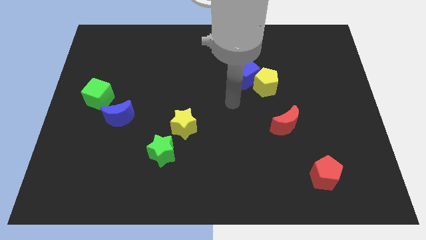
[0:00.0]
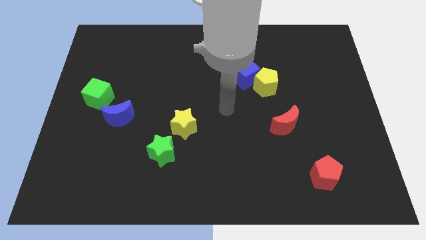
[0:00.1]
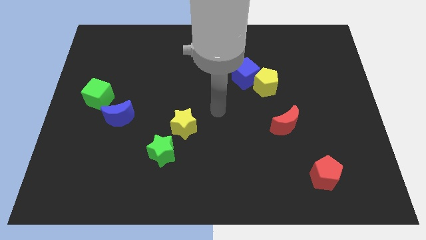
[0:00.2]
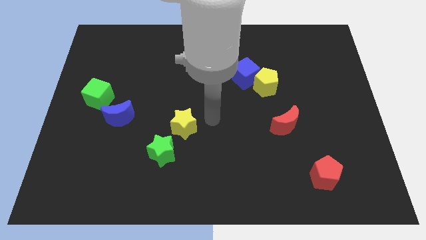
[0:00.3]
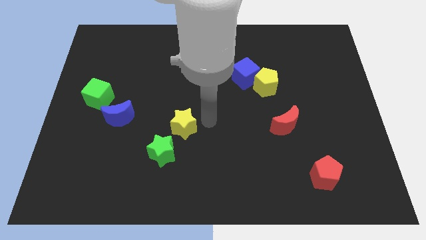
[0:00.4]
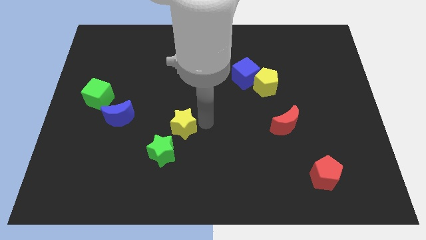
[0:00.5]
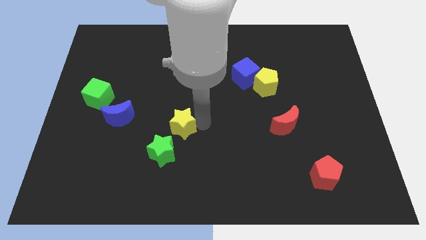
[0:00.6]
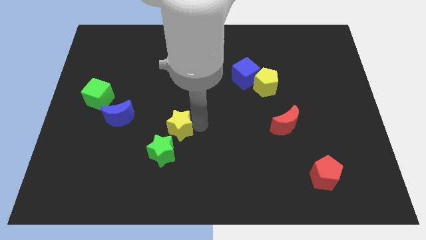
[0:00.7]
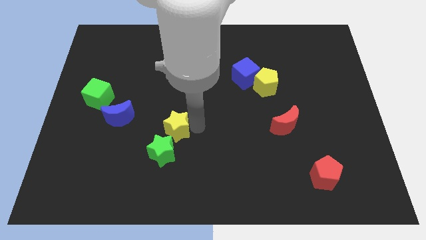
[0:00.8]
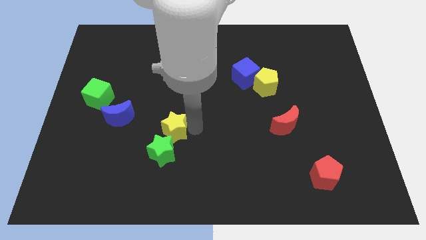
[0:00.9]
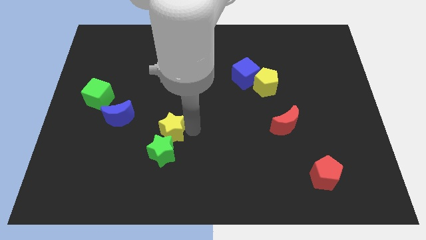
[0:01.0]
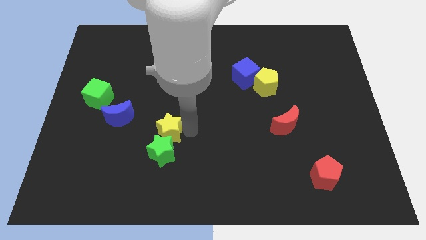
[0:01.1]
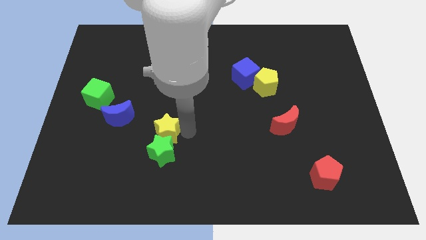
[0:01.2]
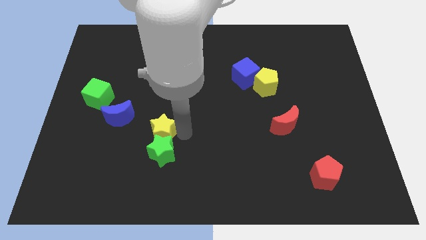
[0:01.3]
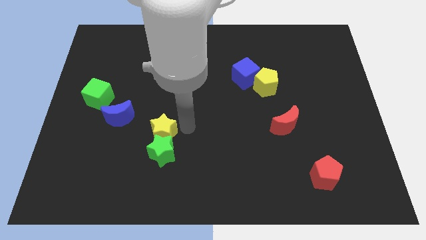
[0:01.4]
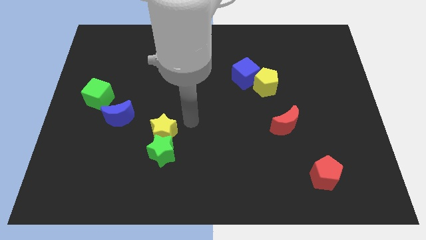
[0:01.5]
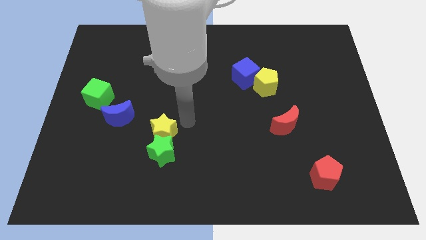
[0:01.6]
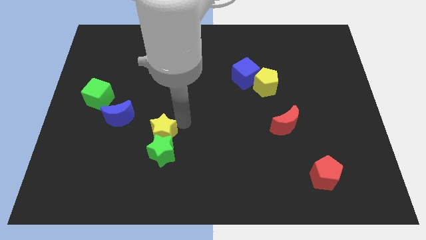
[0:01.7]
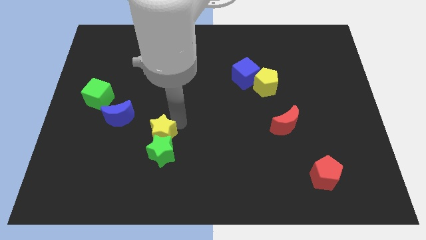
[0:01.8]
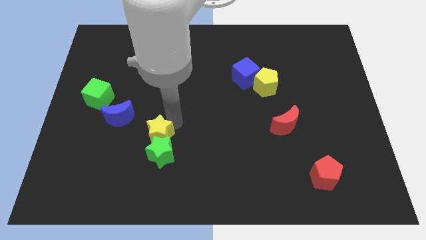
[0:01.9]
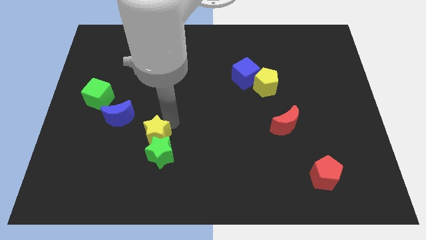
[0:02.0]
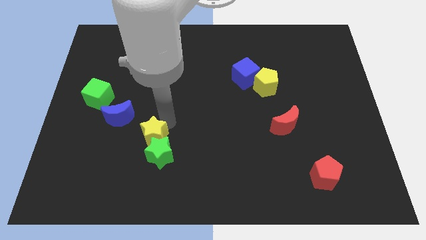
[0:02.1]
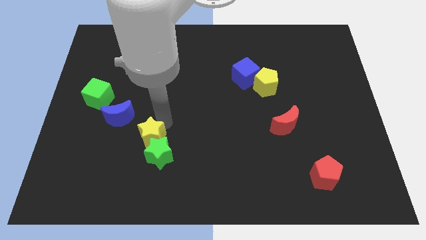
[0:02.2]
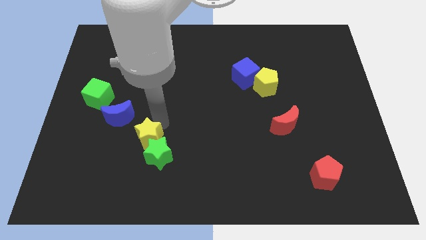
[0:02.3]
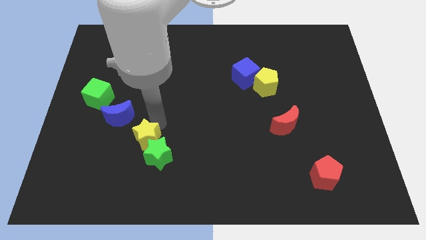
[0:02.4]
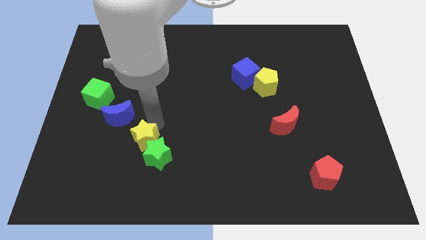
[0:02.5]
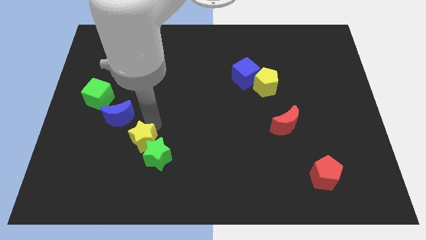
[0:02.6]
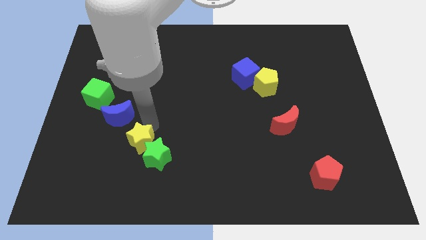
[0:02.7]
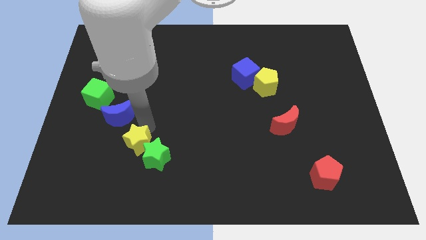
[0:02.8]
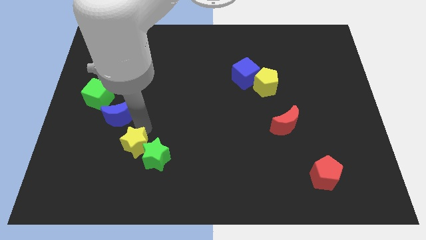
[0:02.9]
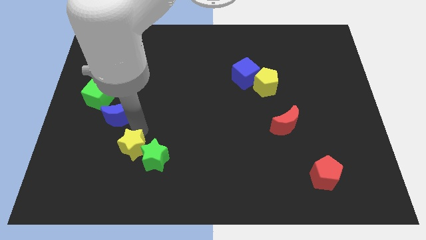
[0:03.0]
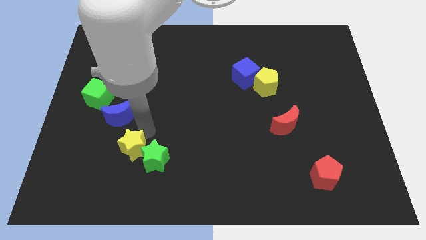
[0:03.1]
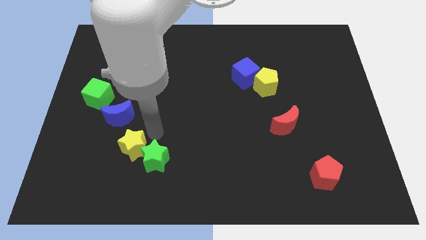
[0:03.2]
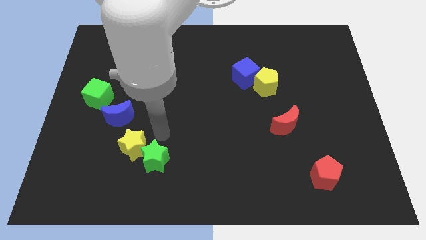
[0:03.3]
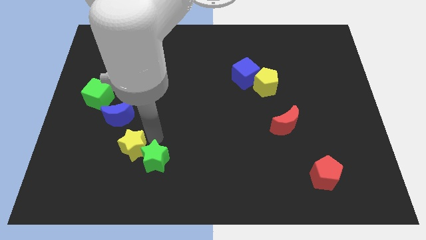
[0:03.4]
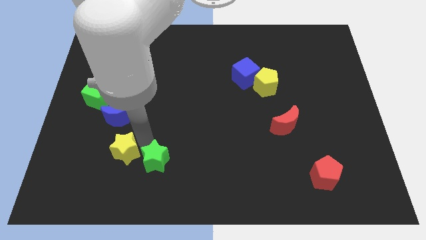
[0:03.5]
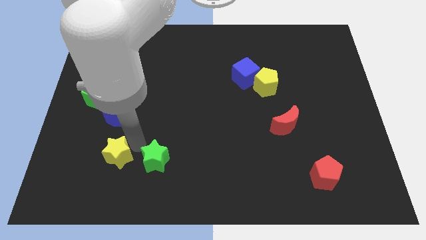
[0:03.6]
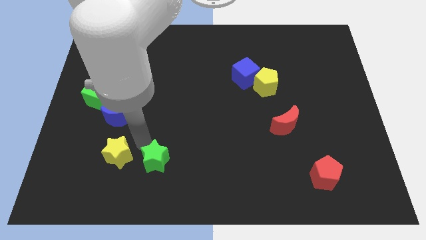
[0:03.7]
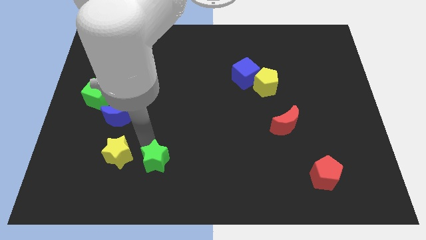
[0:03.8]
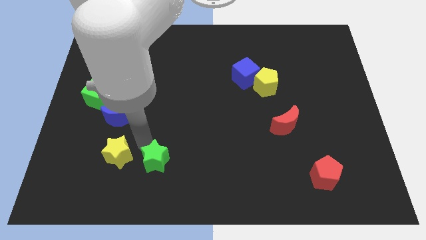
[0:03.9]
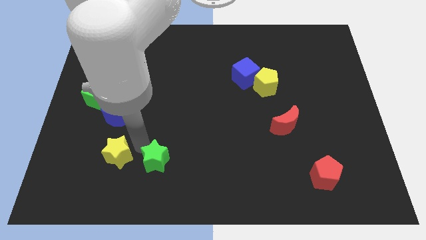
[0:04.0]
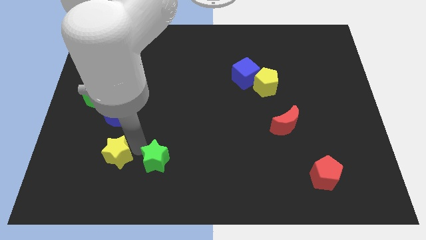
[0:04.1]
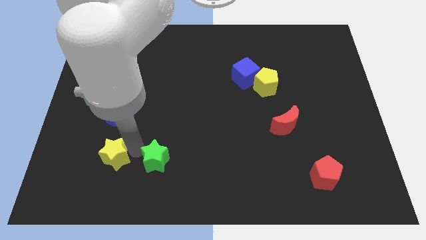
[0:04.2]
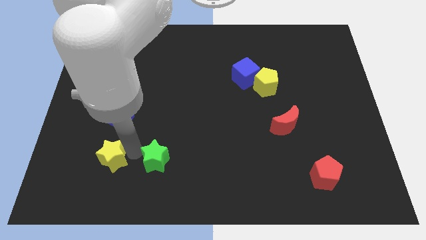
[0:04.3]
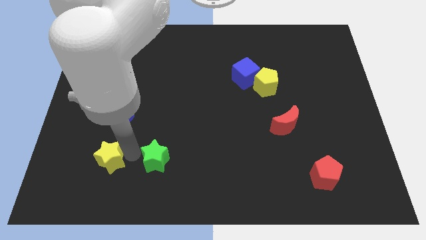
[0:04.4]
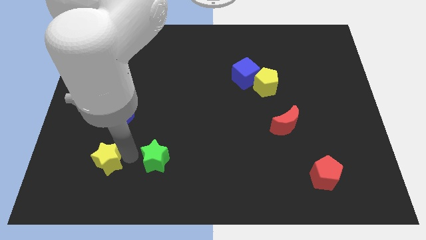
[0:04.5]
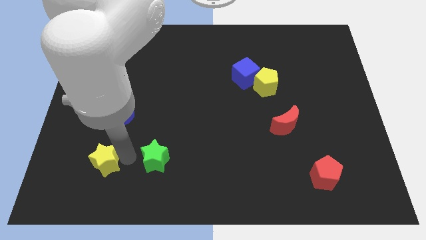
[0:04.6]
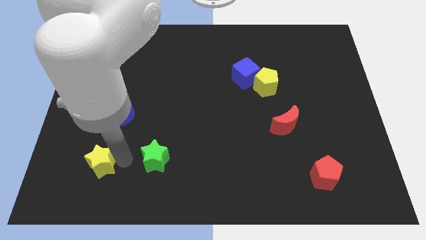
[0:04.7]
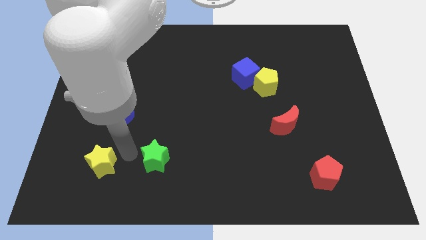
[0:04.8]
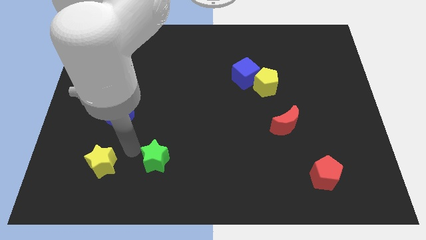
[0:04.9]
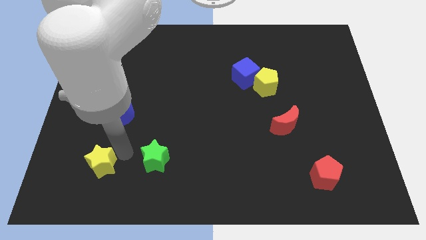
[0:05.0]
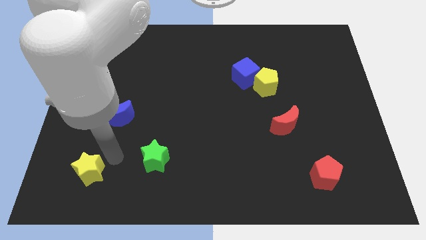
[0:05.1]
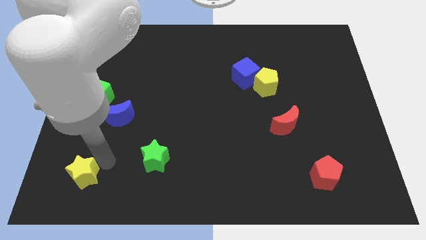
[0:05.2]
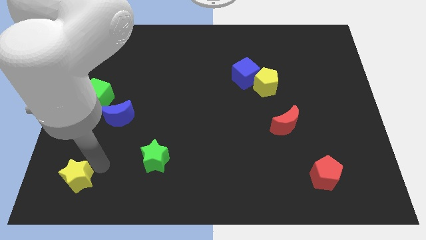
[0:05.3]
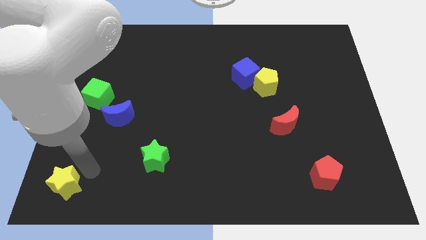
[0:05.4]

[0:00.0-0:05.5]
put the yellow star to the lower left corner

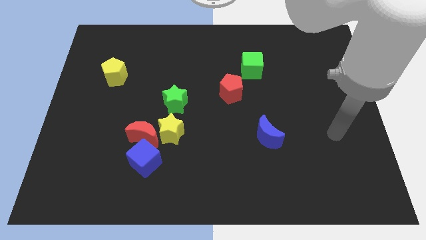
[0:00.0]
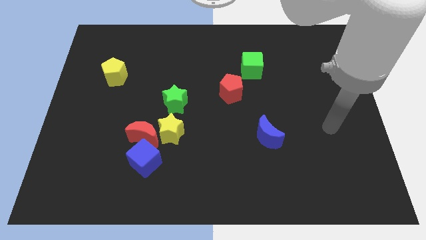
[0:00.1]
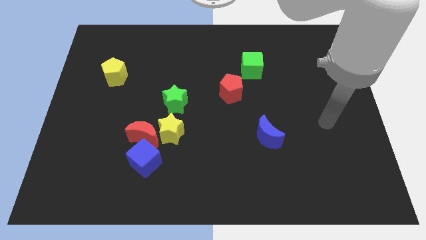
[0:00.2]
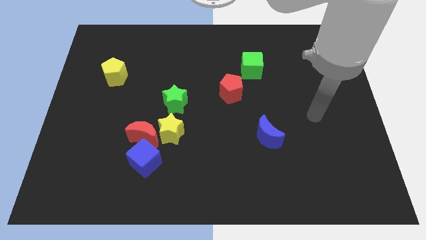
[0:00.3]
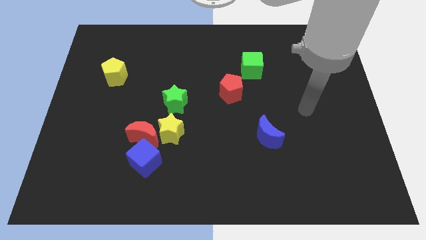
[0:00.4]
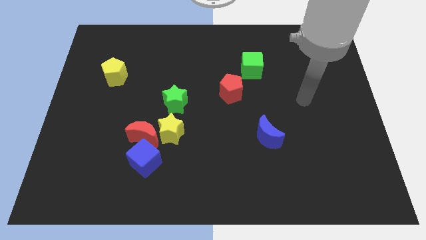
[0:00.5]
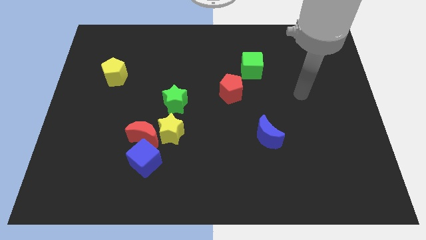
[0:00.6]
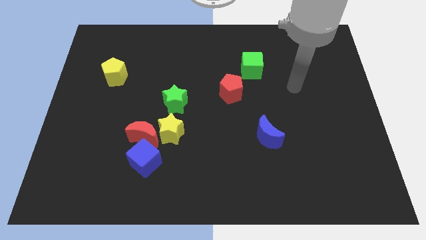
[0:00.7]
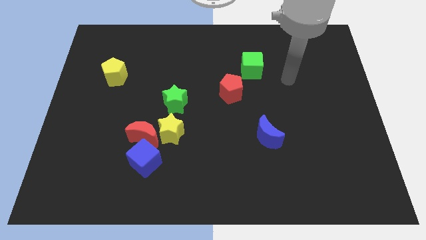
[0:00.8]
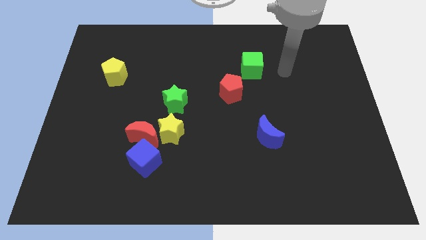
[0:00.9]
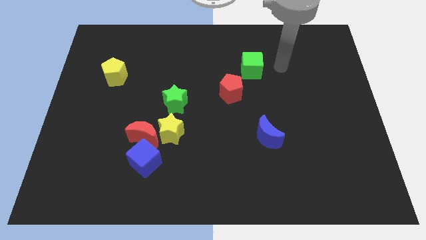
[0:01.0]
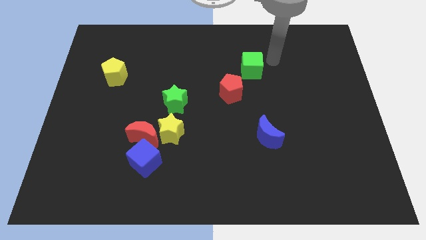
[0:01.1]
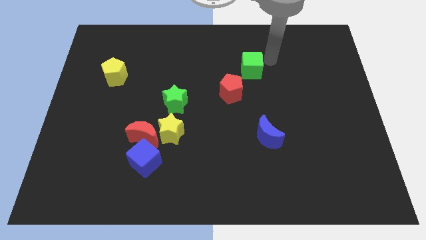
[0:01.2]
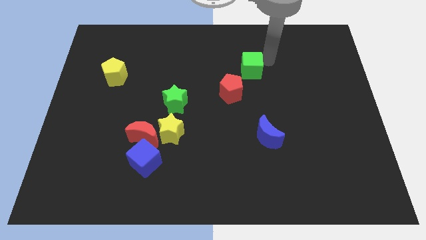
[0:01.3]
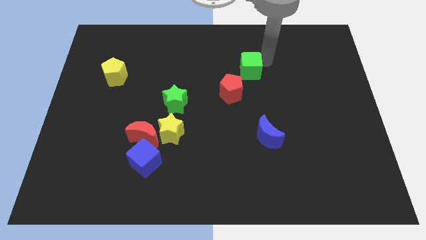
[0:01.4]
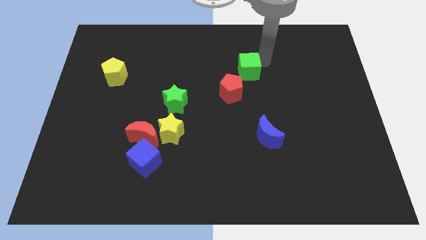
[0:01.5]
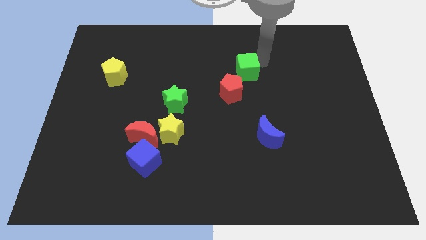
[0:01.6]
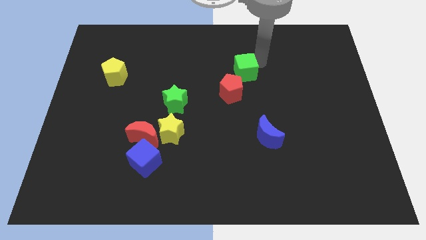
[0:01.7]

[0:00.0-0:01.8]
move the green cube to the middle
